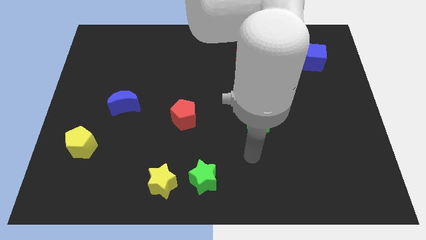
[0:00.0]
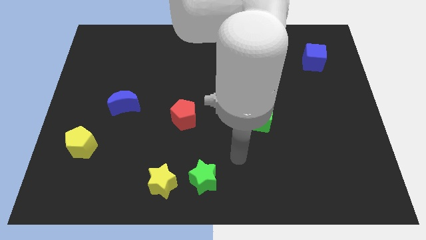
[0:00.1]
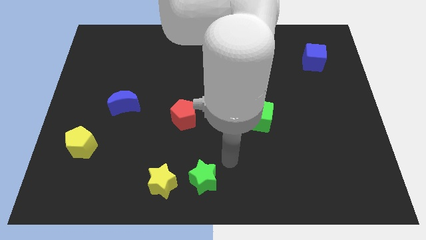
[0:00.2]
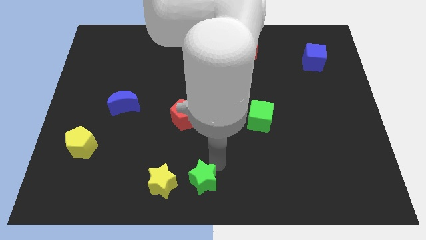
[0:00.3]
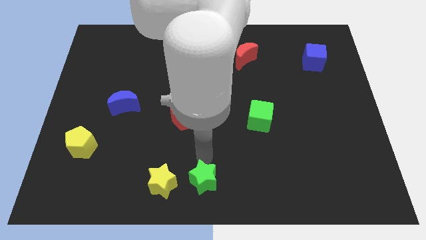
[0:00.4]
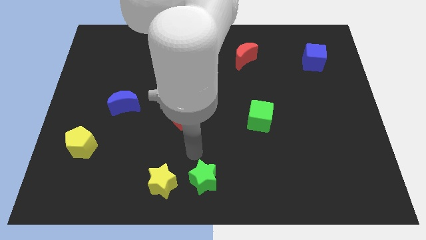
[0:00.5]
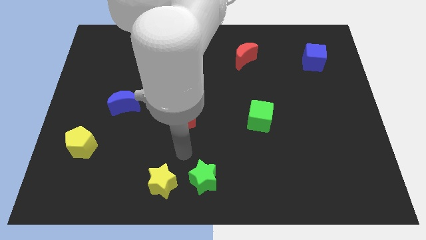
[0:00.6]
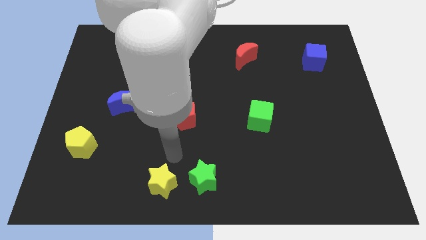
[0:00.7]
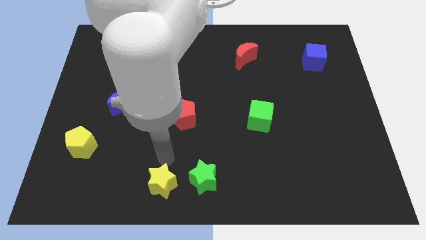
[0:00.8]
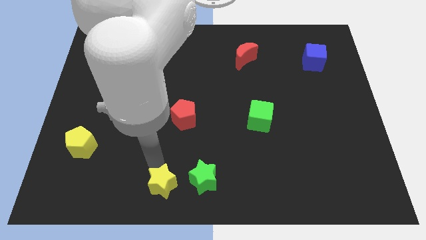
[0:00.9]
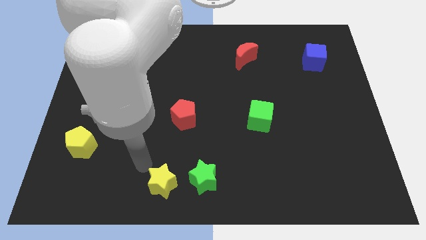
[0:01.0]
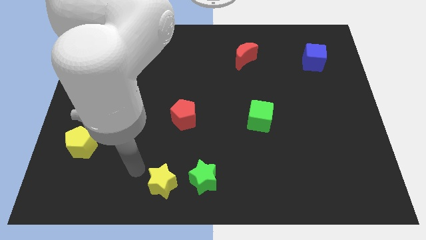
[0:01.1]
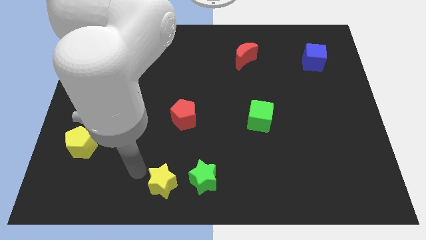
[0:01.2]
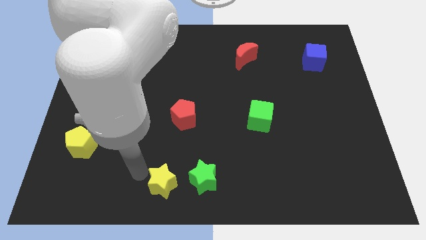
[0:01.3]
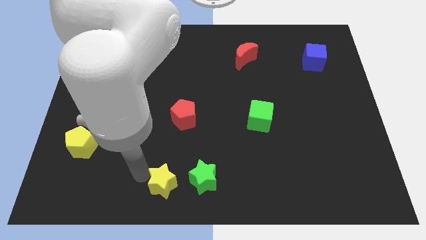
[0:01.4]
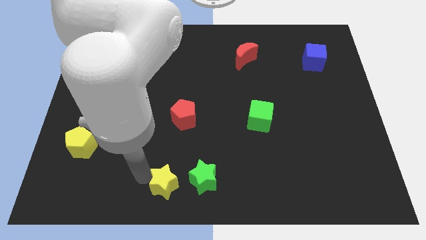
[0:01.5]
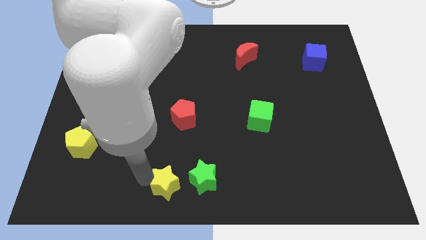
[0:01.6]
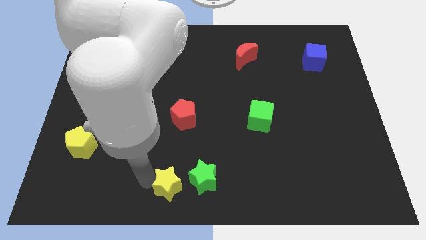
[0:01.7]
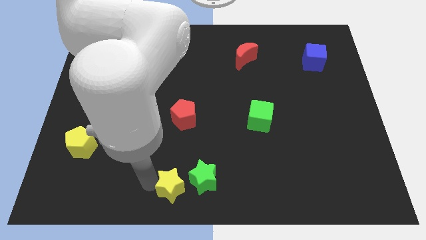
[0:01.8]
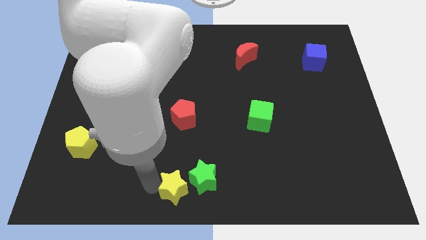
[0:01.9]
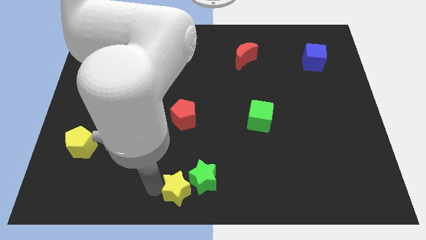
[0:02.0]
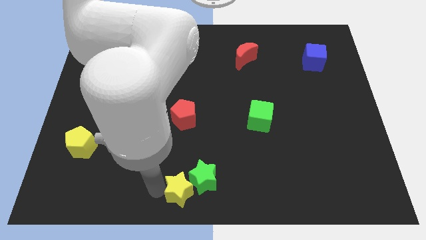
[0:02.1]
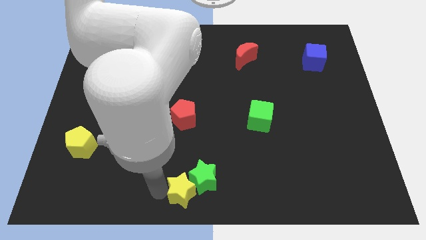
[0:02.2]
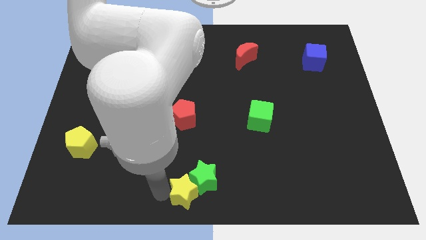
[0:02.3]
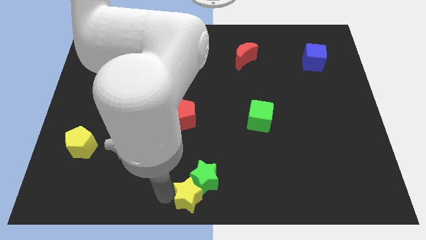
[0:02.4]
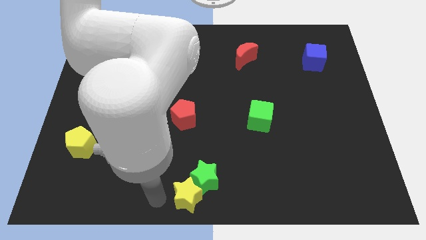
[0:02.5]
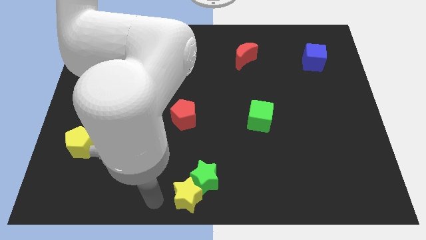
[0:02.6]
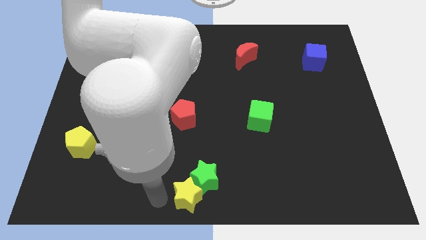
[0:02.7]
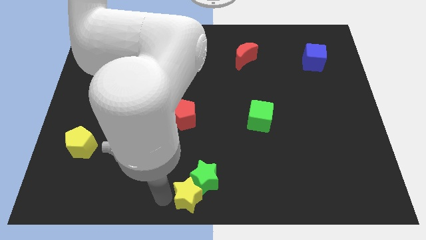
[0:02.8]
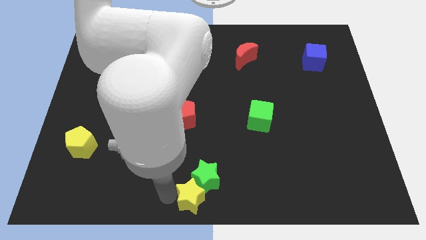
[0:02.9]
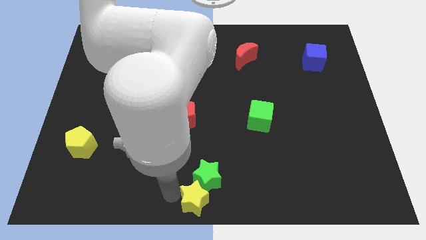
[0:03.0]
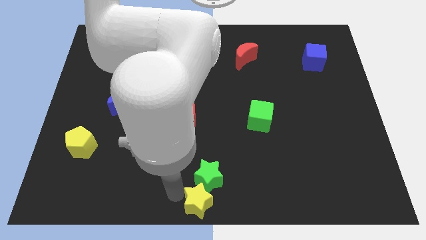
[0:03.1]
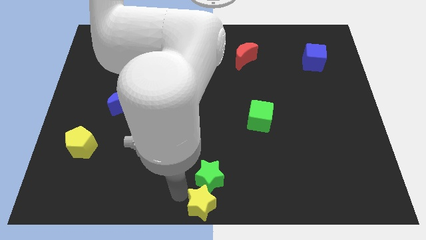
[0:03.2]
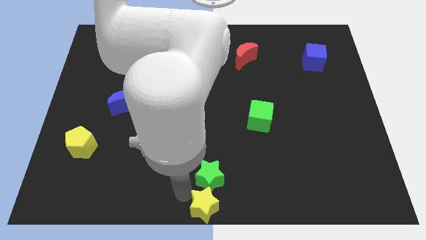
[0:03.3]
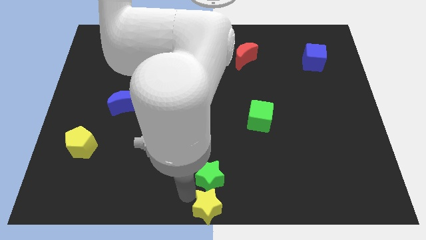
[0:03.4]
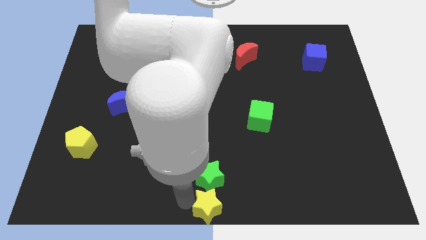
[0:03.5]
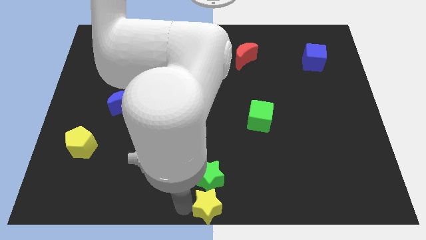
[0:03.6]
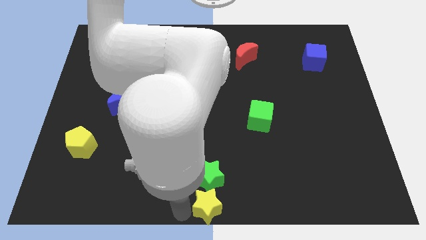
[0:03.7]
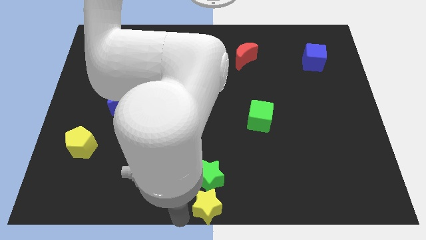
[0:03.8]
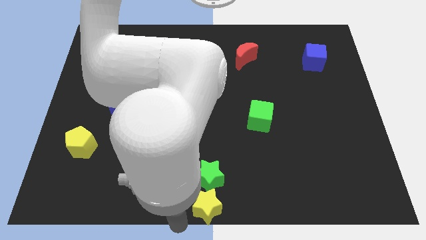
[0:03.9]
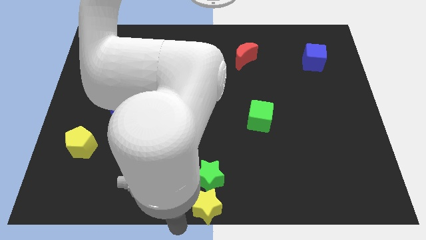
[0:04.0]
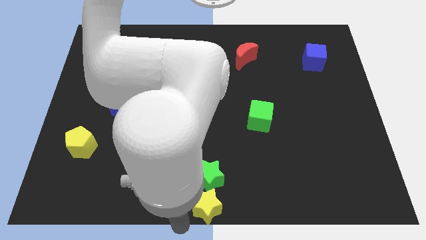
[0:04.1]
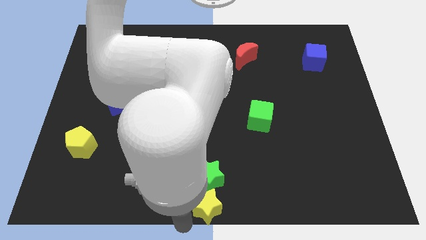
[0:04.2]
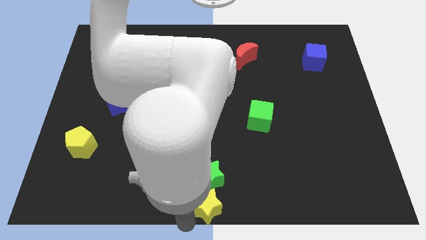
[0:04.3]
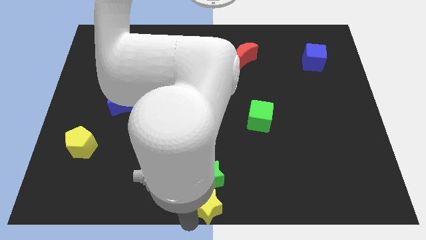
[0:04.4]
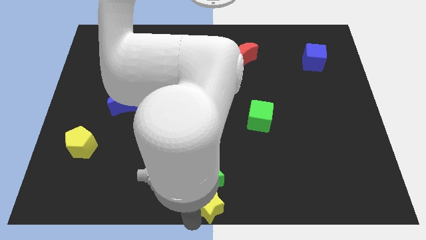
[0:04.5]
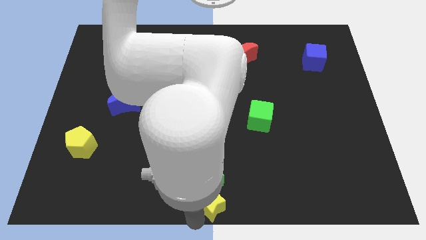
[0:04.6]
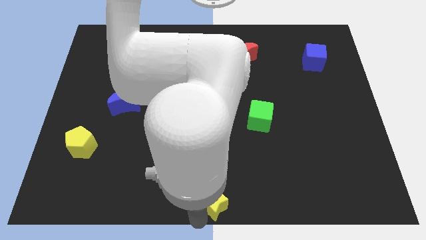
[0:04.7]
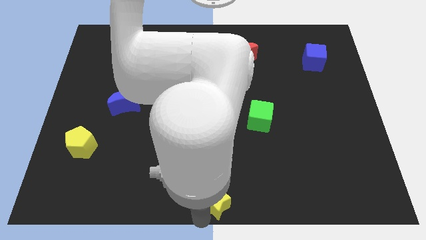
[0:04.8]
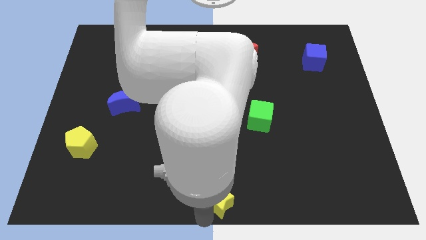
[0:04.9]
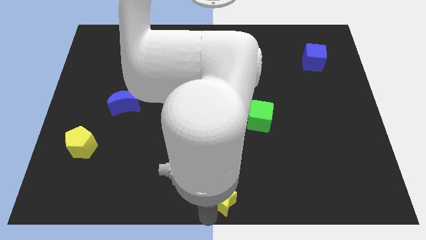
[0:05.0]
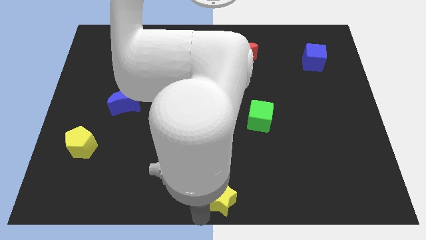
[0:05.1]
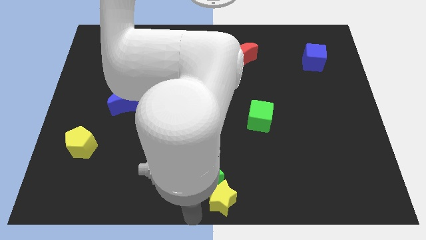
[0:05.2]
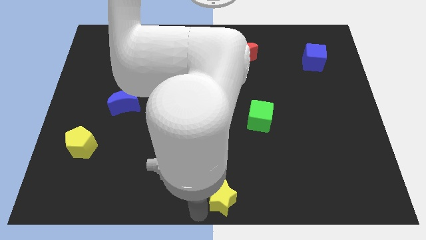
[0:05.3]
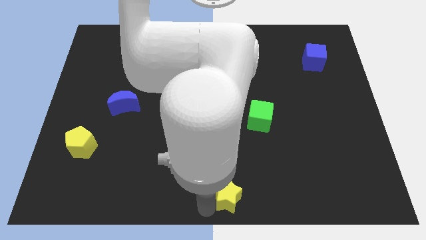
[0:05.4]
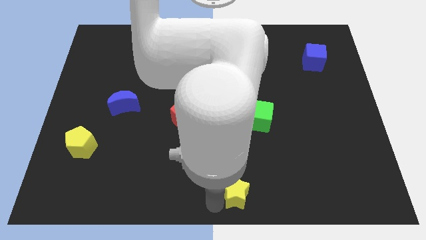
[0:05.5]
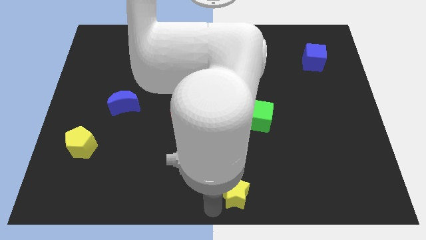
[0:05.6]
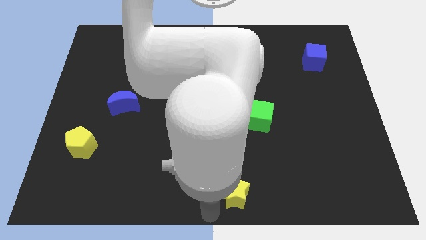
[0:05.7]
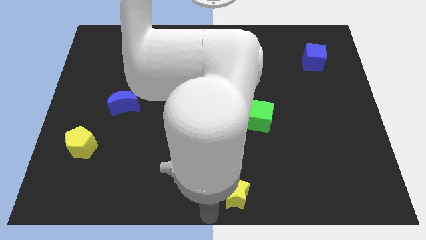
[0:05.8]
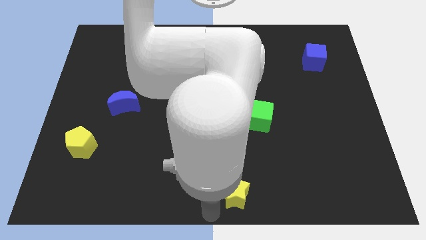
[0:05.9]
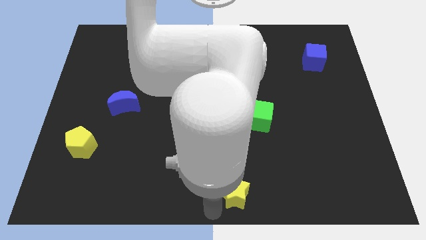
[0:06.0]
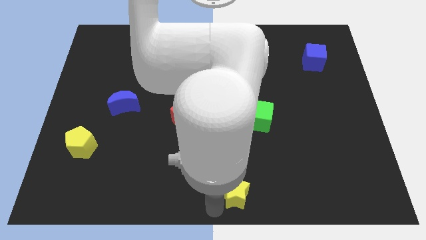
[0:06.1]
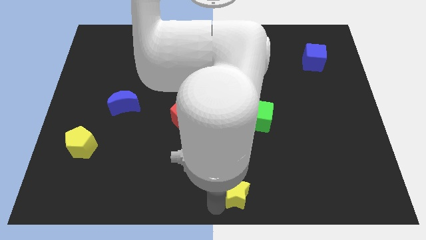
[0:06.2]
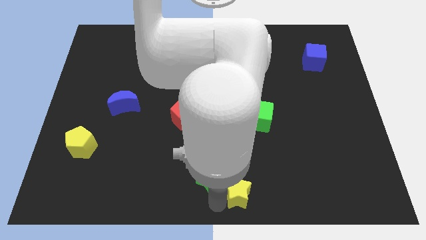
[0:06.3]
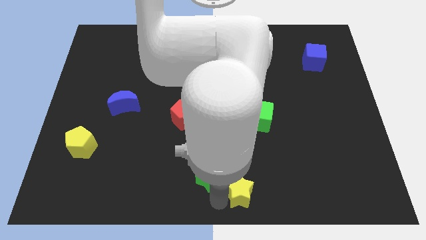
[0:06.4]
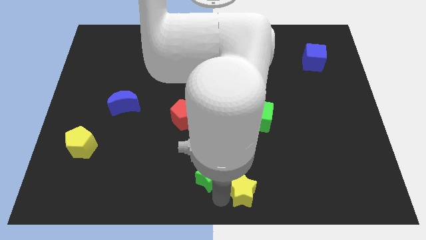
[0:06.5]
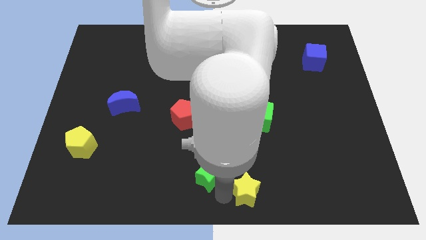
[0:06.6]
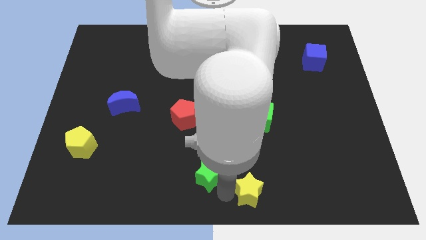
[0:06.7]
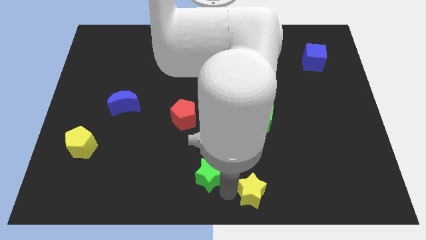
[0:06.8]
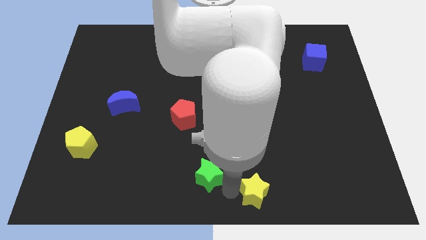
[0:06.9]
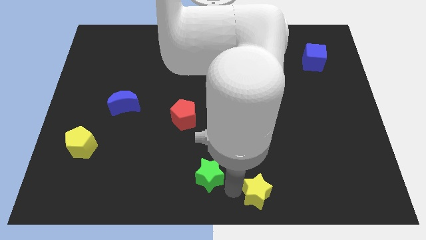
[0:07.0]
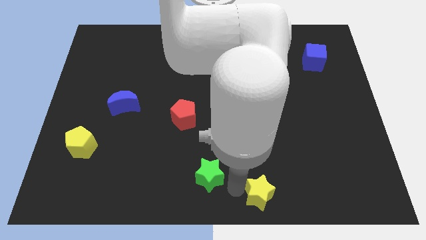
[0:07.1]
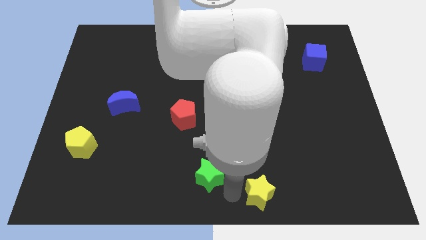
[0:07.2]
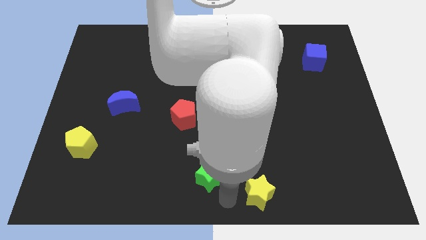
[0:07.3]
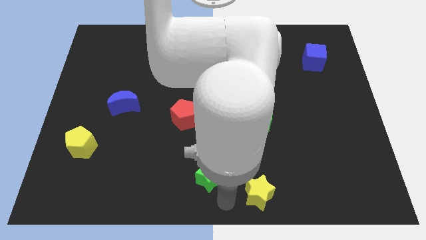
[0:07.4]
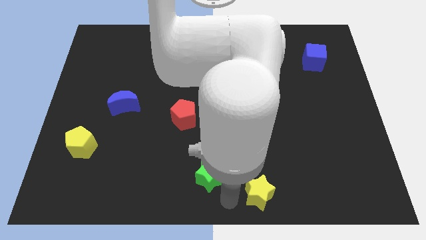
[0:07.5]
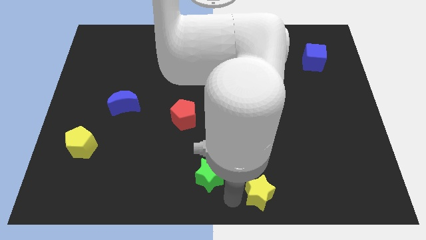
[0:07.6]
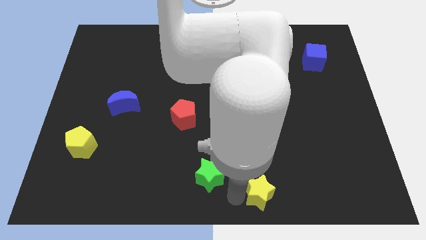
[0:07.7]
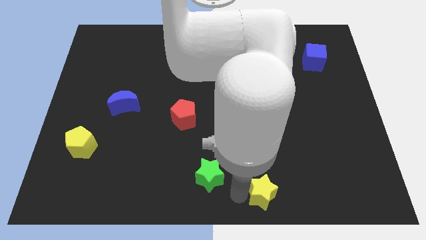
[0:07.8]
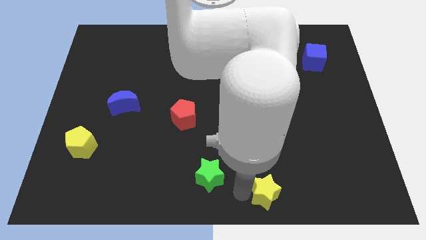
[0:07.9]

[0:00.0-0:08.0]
slide the yellow star to the right
